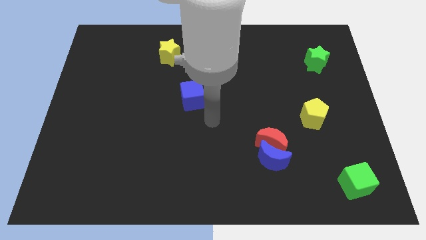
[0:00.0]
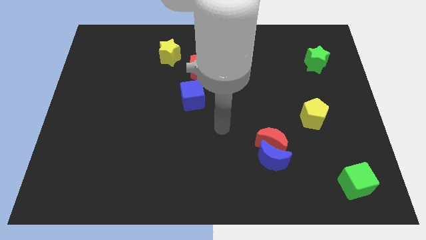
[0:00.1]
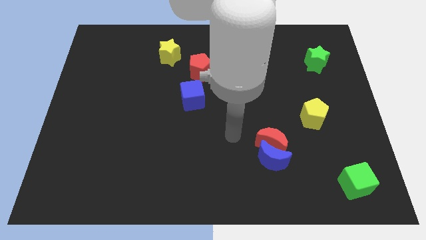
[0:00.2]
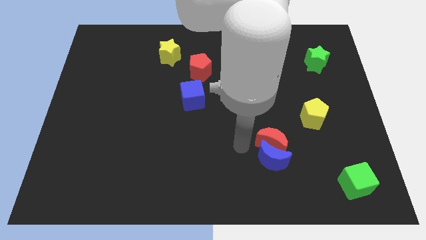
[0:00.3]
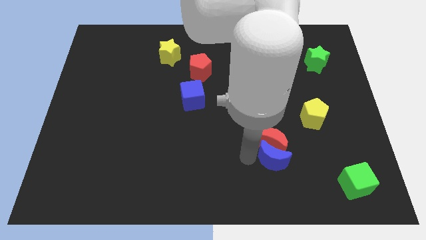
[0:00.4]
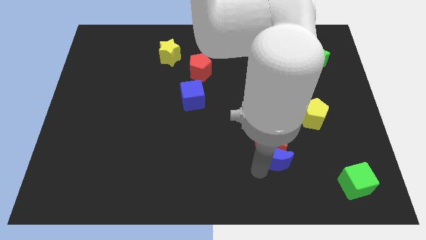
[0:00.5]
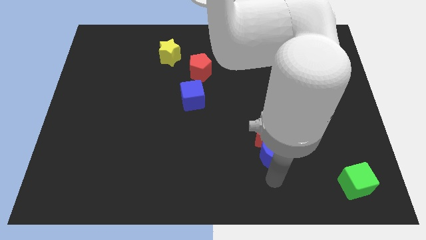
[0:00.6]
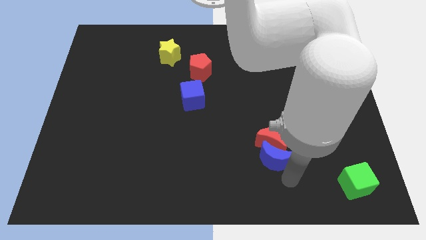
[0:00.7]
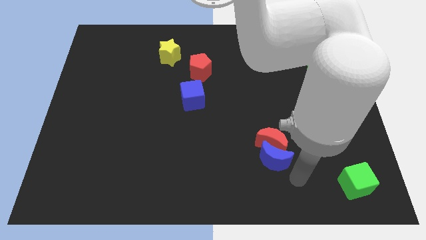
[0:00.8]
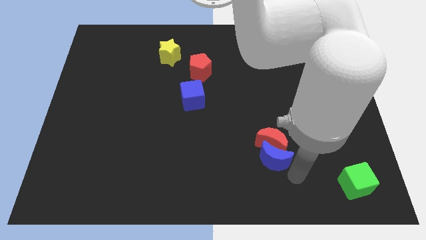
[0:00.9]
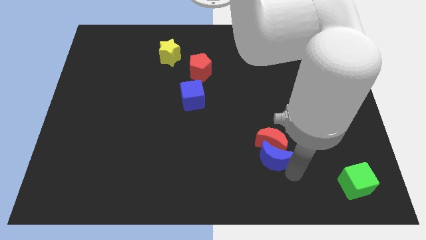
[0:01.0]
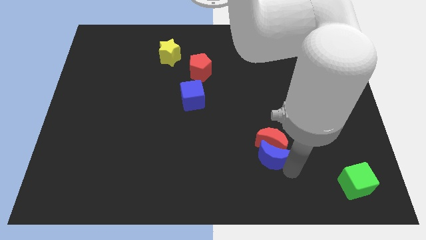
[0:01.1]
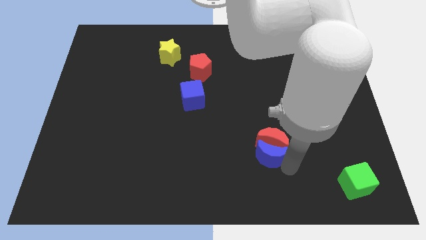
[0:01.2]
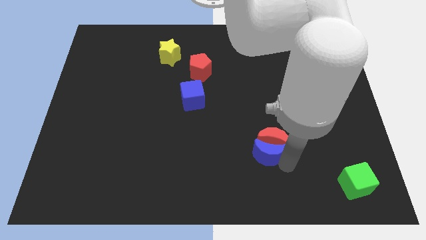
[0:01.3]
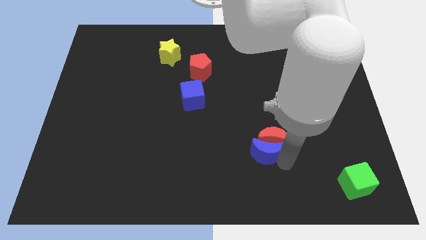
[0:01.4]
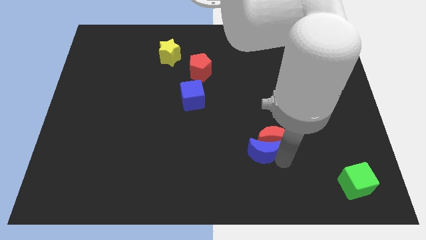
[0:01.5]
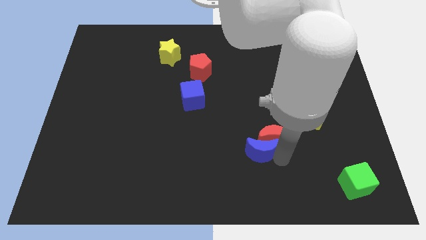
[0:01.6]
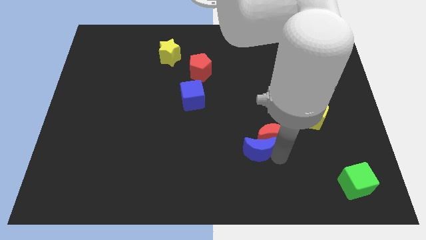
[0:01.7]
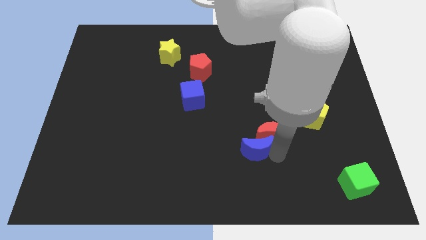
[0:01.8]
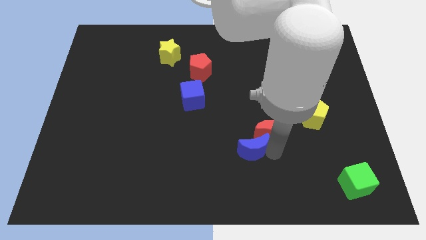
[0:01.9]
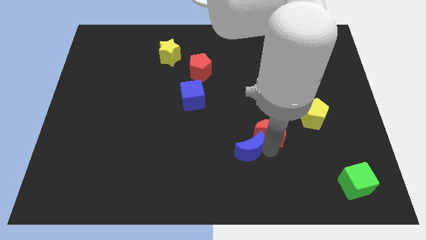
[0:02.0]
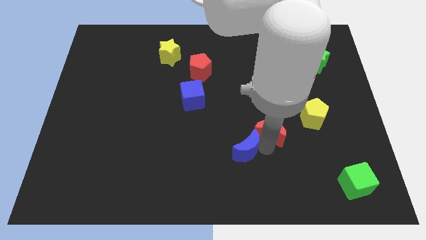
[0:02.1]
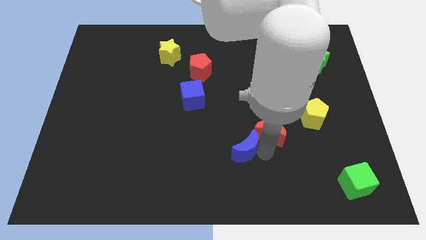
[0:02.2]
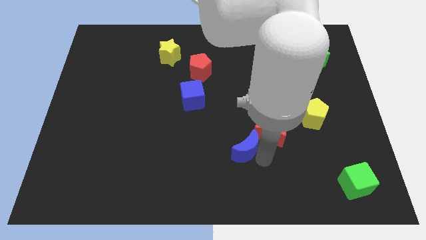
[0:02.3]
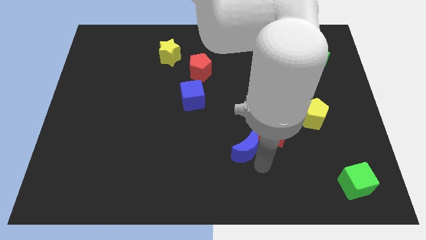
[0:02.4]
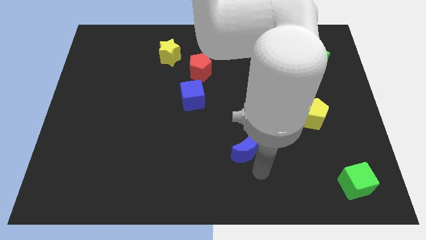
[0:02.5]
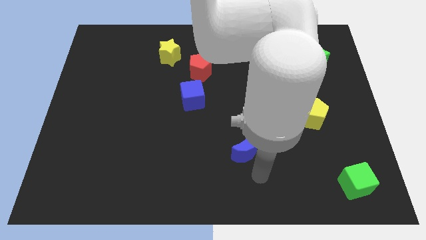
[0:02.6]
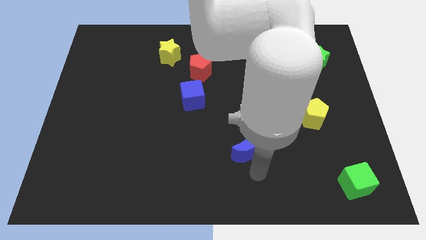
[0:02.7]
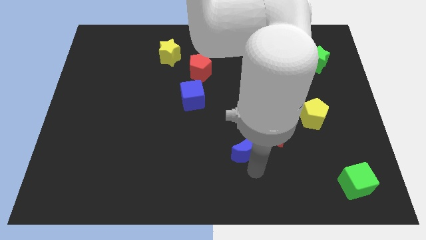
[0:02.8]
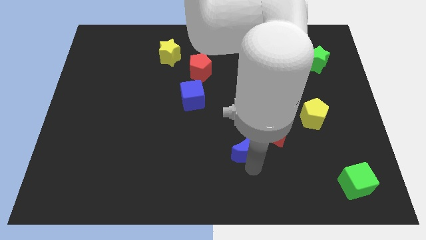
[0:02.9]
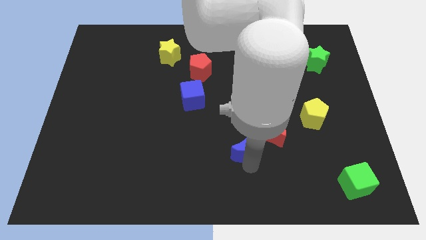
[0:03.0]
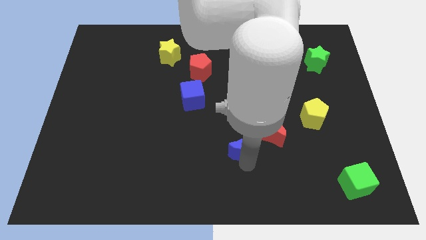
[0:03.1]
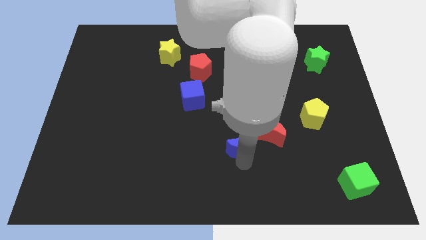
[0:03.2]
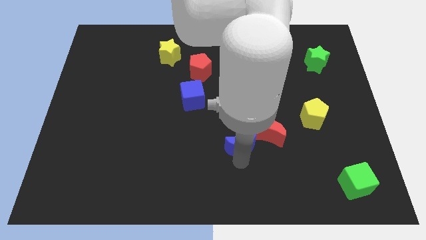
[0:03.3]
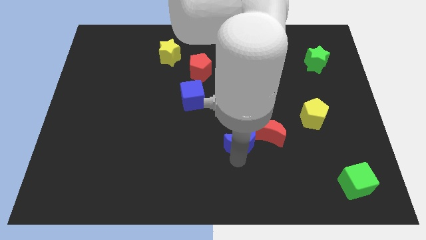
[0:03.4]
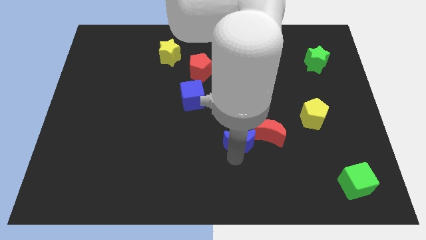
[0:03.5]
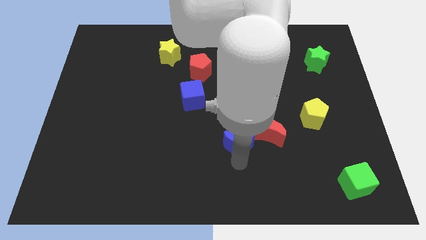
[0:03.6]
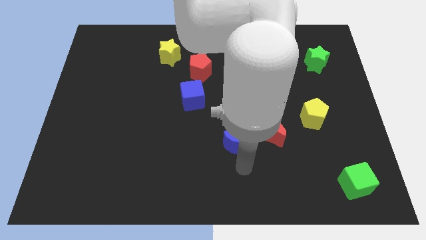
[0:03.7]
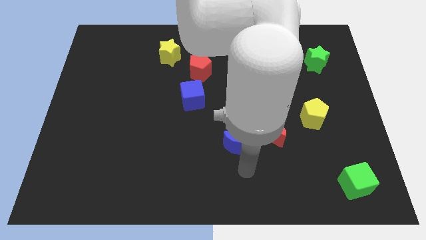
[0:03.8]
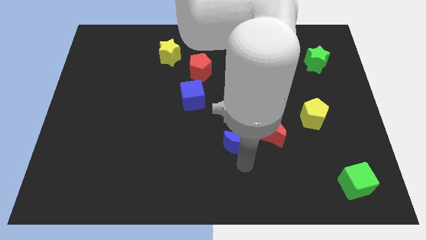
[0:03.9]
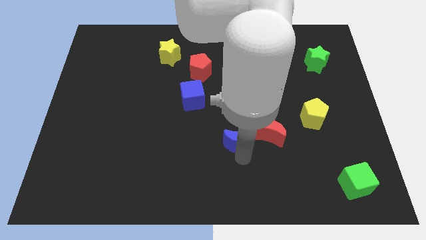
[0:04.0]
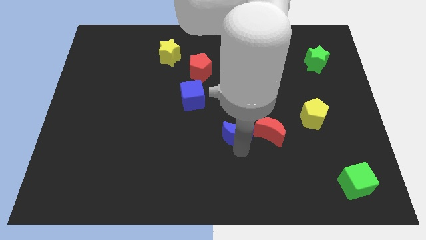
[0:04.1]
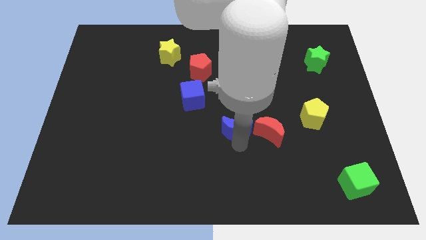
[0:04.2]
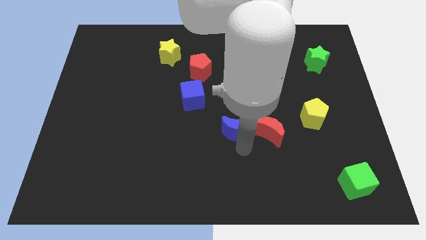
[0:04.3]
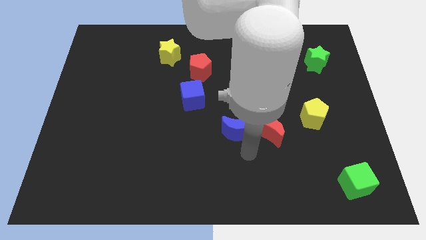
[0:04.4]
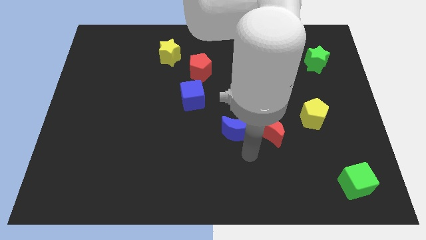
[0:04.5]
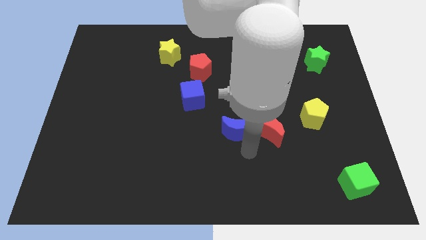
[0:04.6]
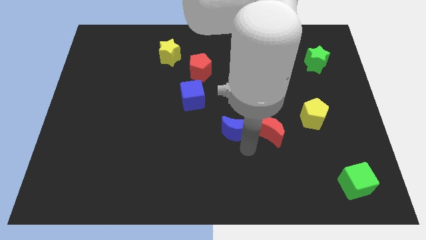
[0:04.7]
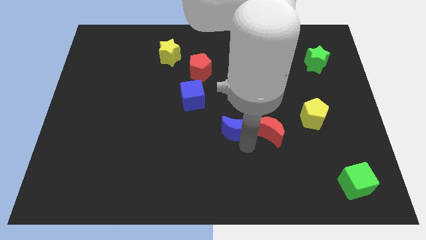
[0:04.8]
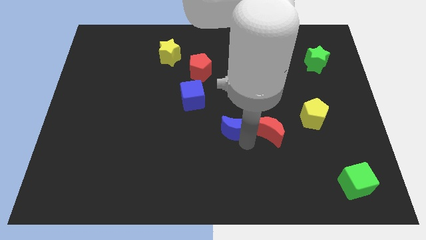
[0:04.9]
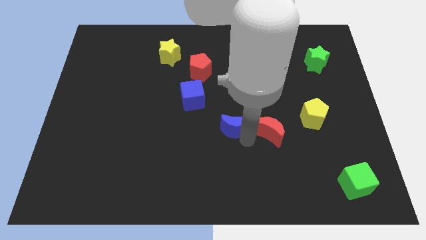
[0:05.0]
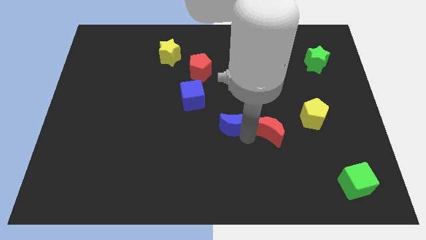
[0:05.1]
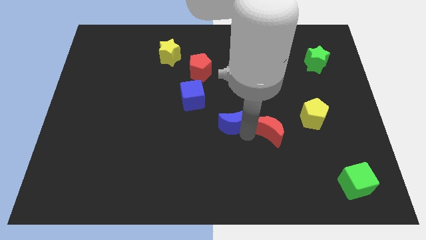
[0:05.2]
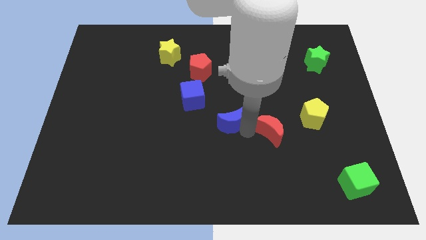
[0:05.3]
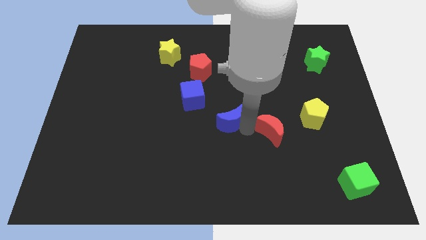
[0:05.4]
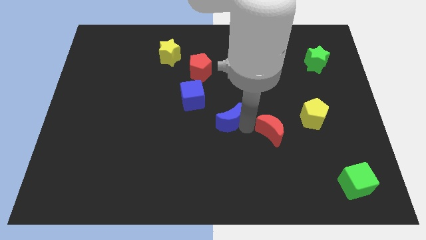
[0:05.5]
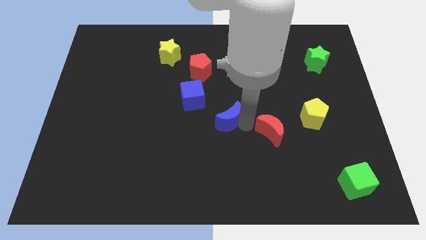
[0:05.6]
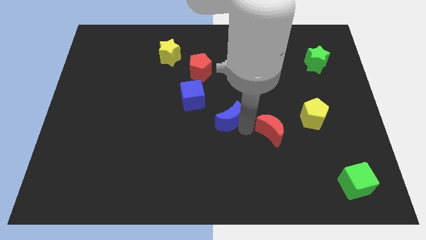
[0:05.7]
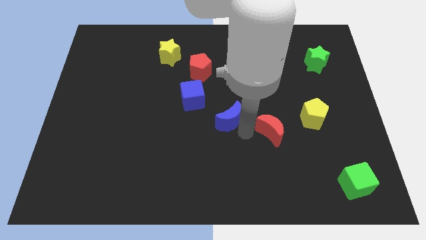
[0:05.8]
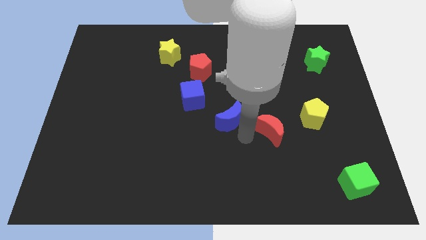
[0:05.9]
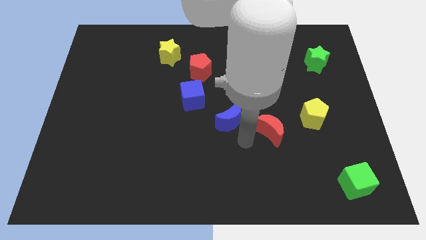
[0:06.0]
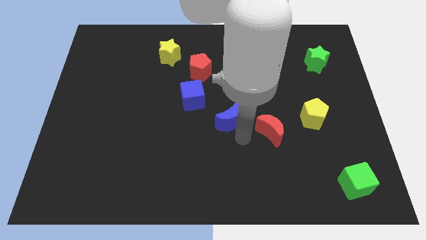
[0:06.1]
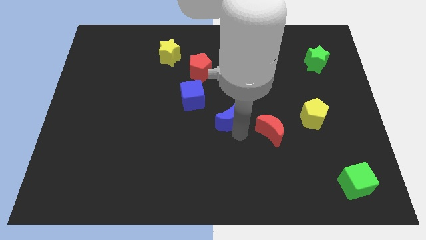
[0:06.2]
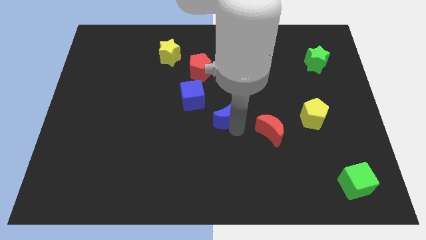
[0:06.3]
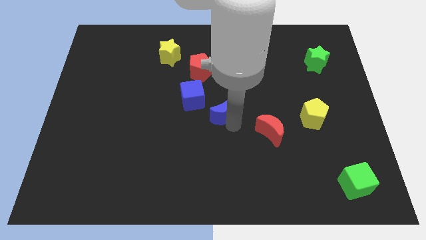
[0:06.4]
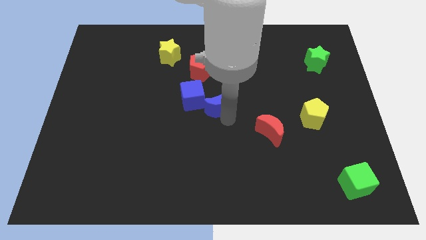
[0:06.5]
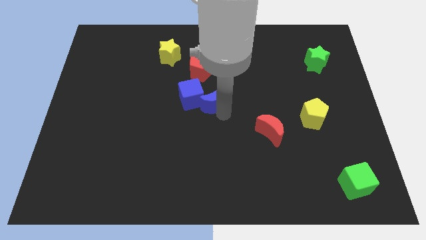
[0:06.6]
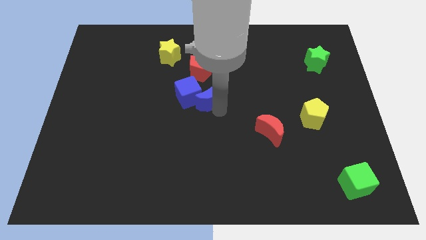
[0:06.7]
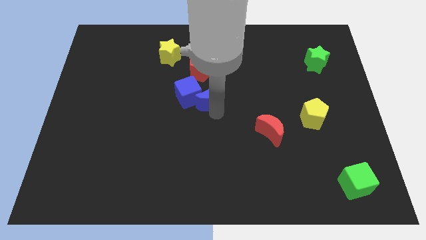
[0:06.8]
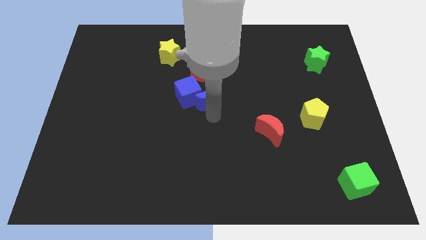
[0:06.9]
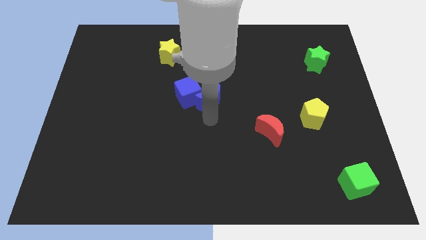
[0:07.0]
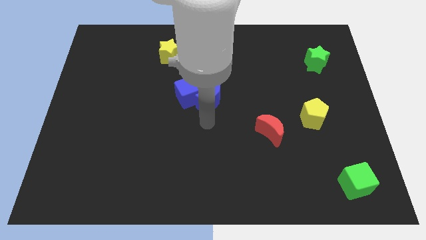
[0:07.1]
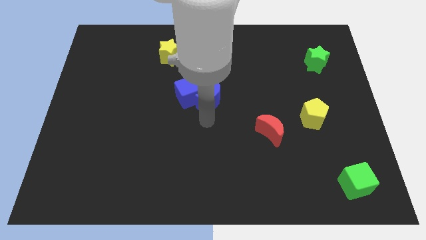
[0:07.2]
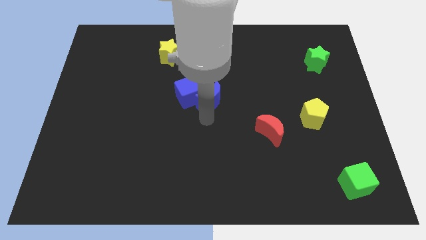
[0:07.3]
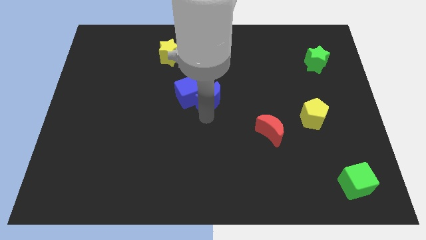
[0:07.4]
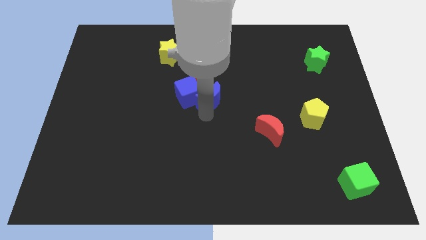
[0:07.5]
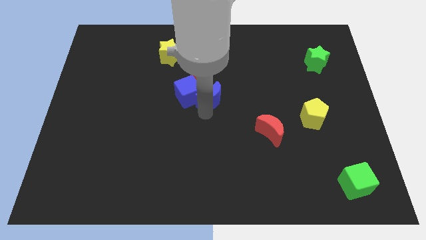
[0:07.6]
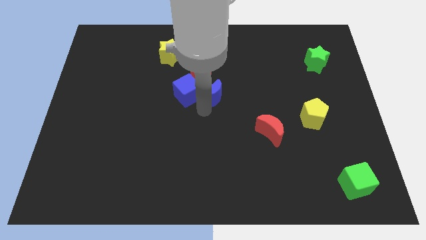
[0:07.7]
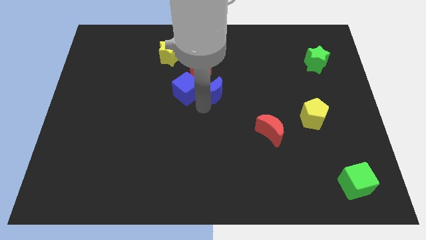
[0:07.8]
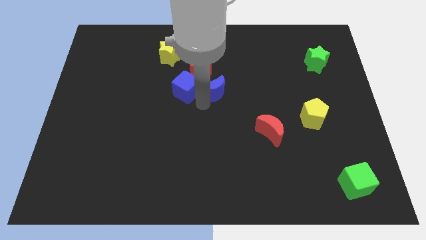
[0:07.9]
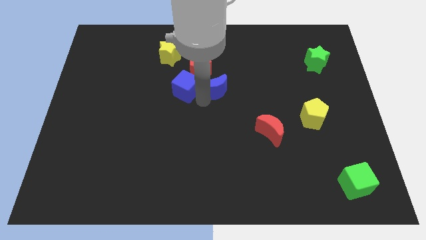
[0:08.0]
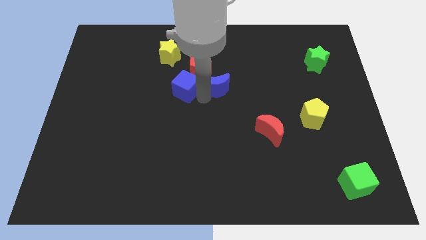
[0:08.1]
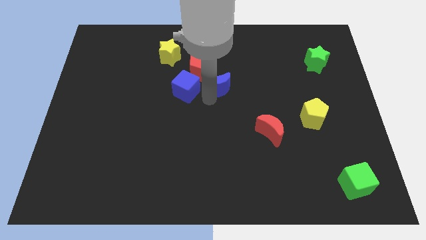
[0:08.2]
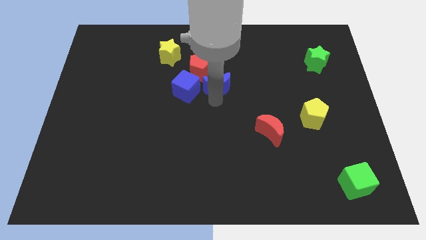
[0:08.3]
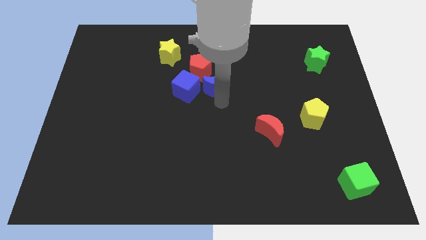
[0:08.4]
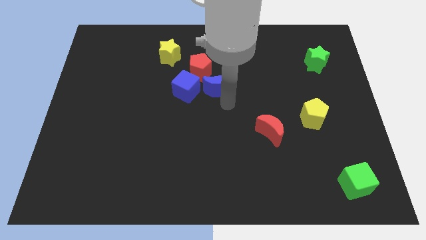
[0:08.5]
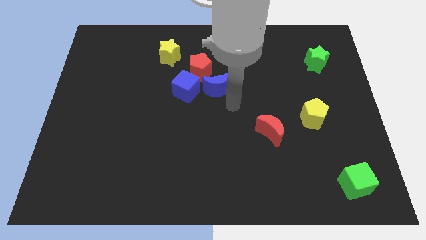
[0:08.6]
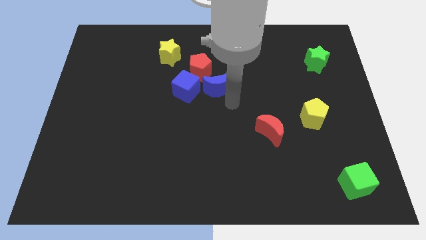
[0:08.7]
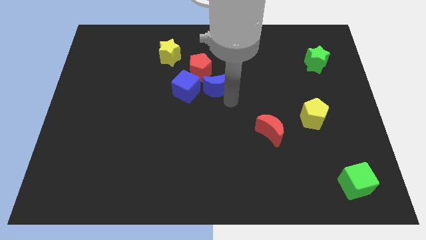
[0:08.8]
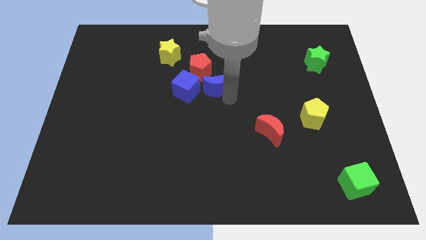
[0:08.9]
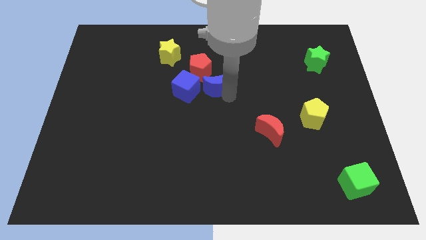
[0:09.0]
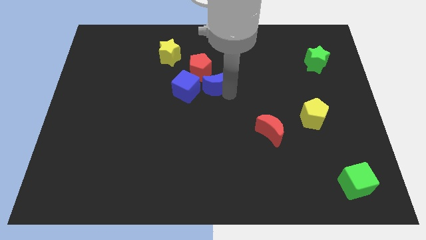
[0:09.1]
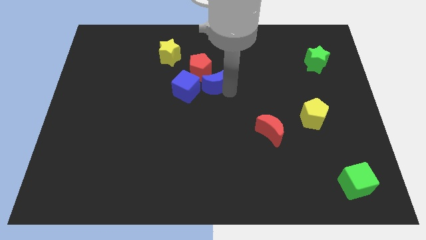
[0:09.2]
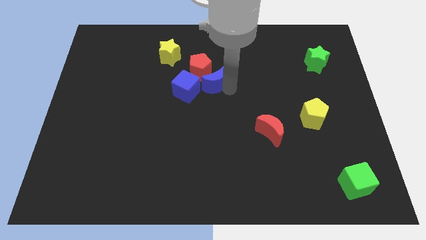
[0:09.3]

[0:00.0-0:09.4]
slide the blue moon next to the red pentagon
